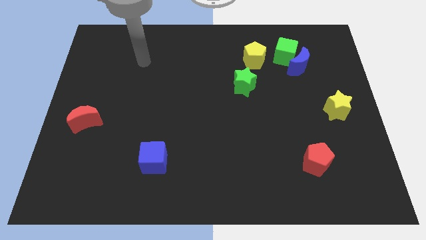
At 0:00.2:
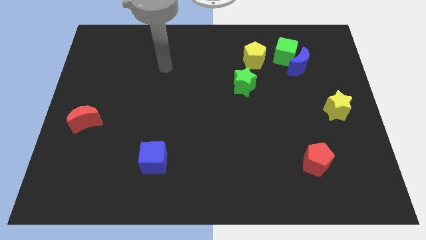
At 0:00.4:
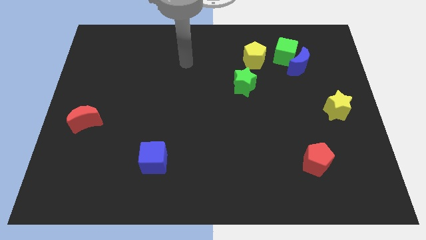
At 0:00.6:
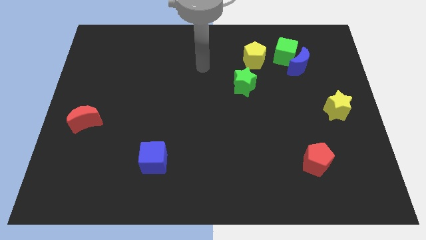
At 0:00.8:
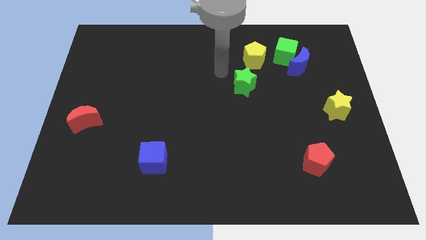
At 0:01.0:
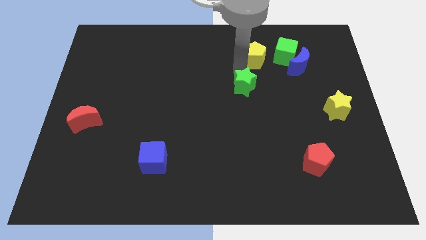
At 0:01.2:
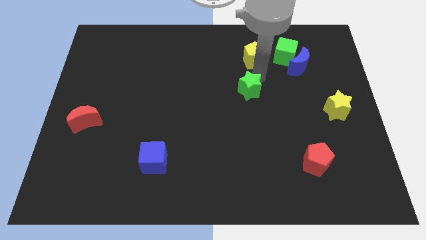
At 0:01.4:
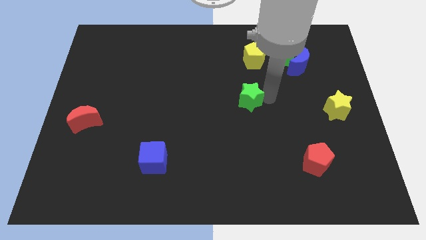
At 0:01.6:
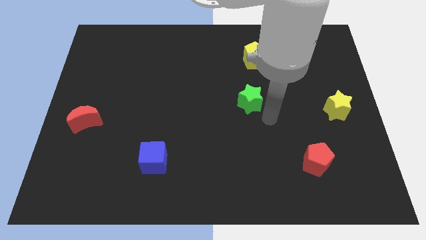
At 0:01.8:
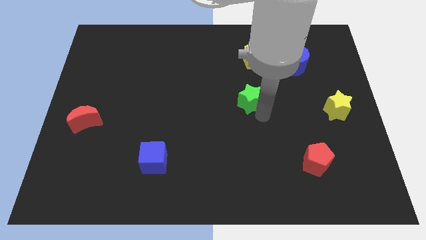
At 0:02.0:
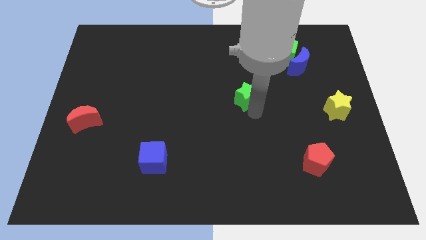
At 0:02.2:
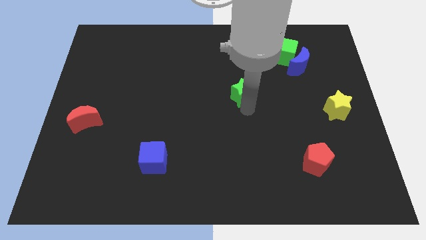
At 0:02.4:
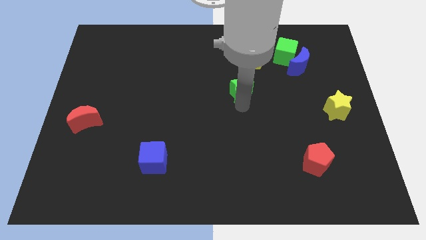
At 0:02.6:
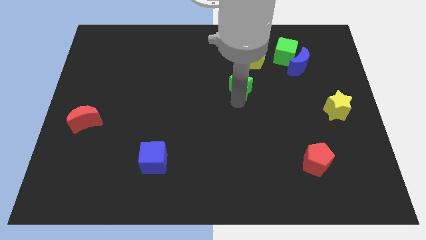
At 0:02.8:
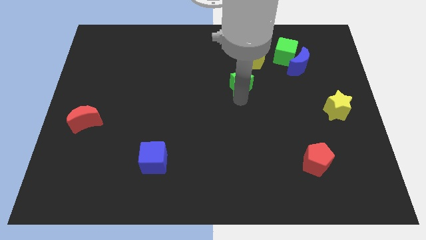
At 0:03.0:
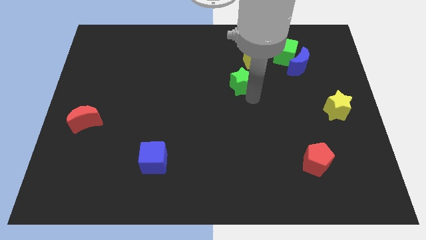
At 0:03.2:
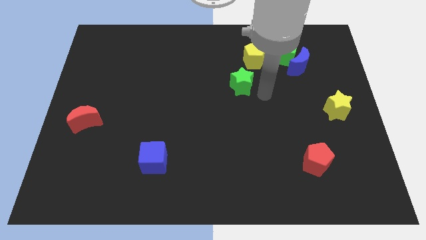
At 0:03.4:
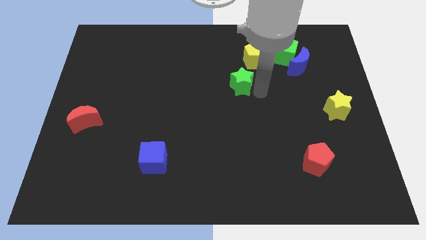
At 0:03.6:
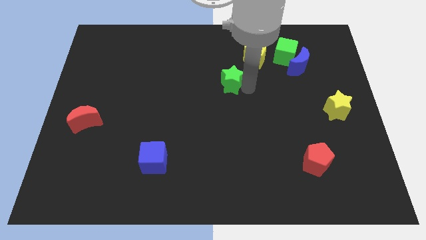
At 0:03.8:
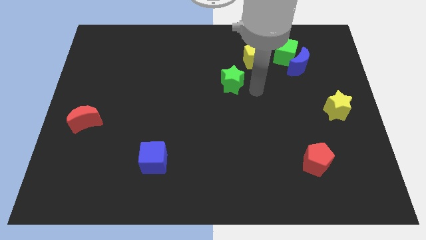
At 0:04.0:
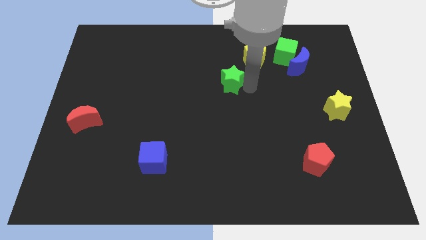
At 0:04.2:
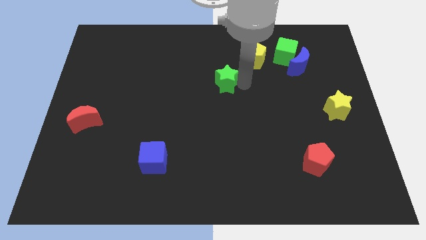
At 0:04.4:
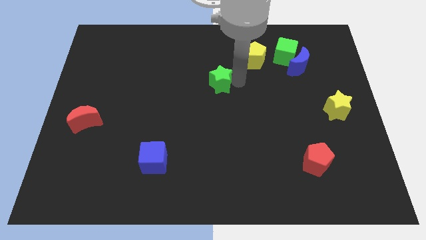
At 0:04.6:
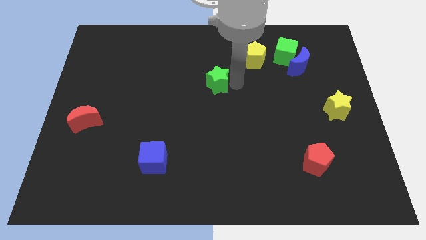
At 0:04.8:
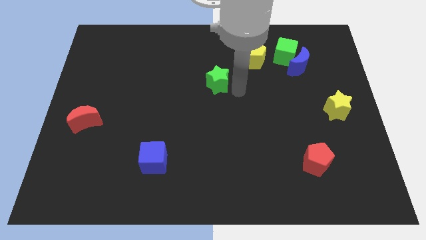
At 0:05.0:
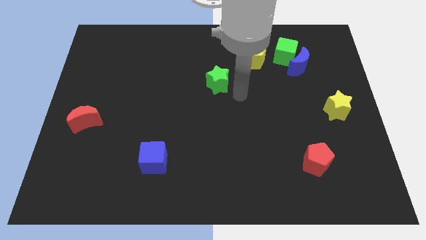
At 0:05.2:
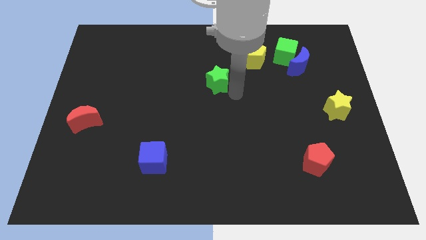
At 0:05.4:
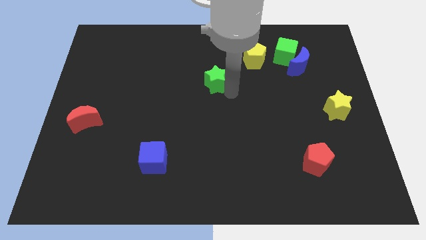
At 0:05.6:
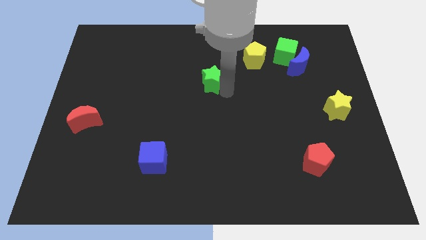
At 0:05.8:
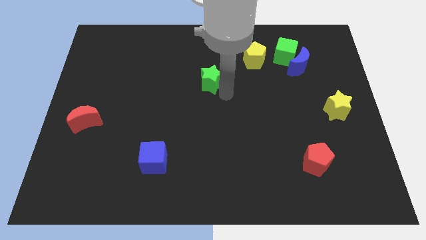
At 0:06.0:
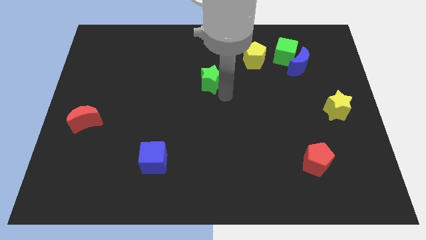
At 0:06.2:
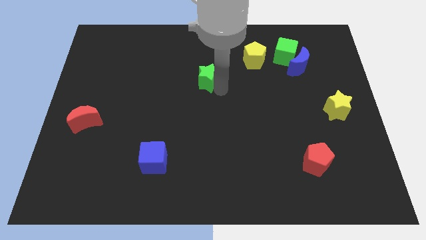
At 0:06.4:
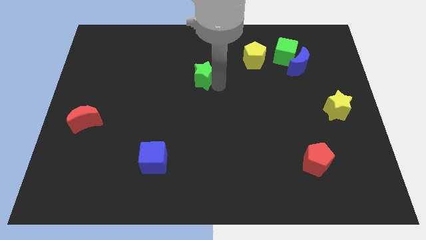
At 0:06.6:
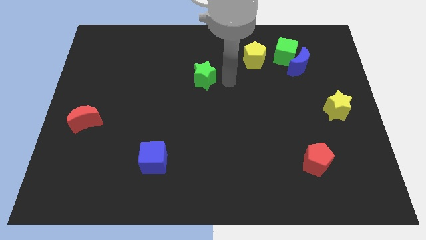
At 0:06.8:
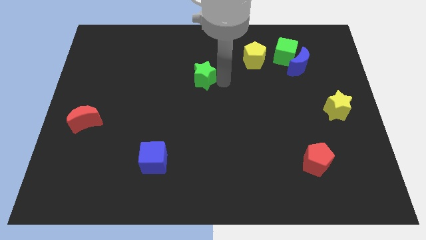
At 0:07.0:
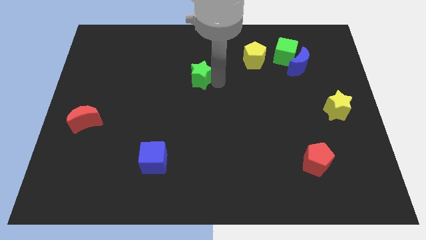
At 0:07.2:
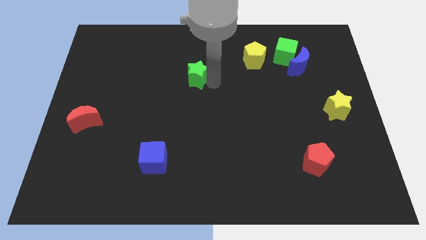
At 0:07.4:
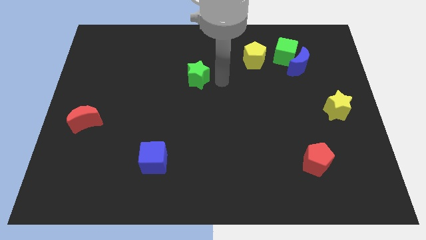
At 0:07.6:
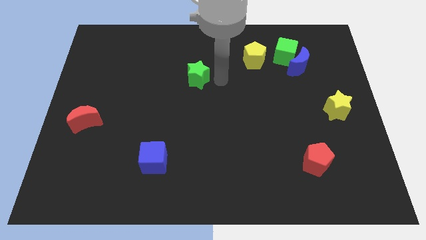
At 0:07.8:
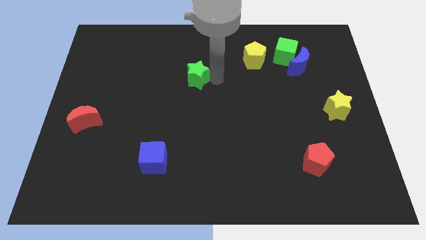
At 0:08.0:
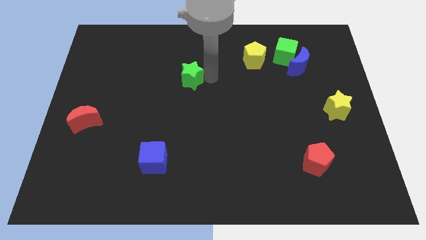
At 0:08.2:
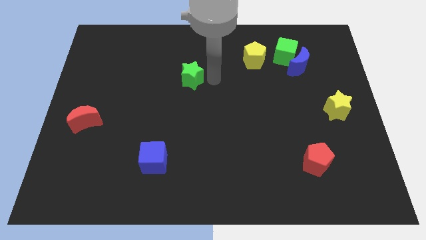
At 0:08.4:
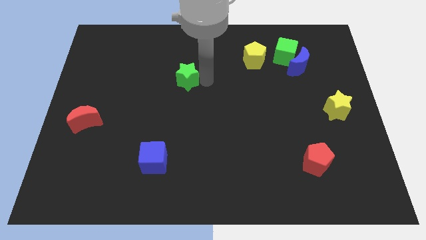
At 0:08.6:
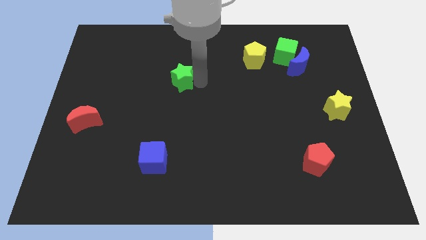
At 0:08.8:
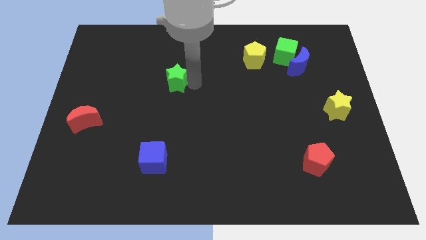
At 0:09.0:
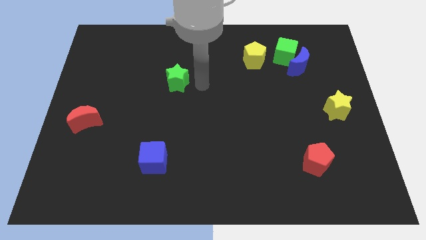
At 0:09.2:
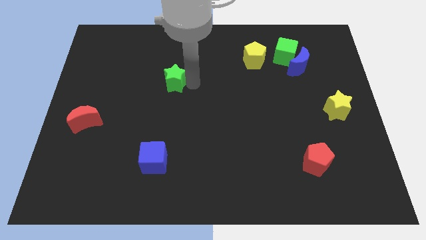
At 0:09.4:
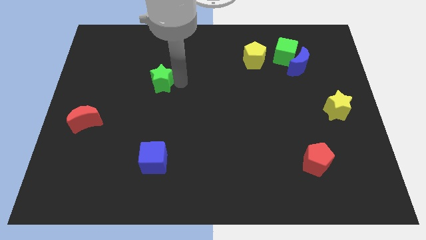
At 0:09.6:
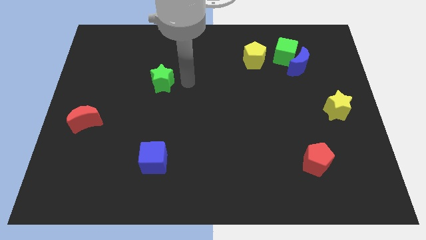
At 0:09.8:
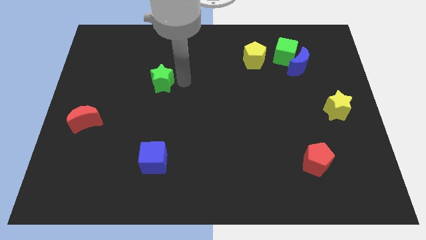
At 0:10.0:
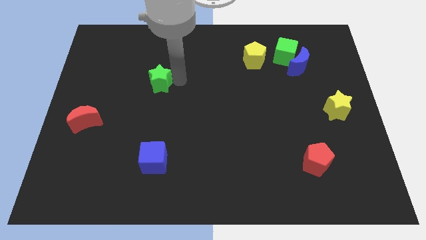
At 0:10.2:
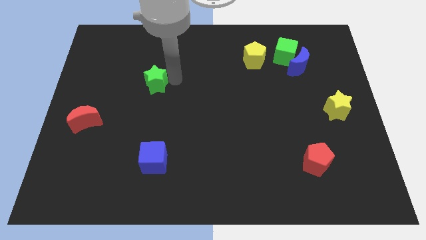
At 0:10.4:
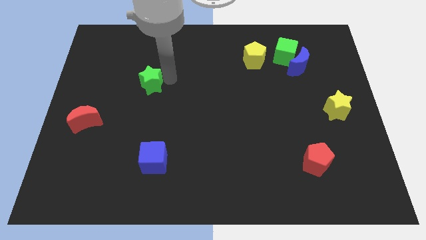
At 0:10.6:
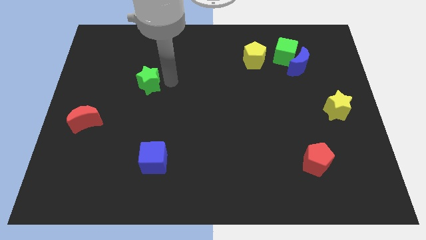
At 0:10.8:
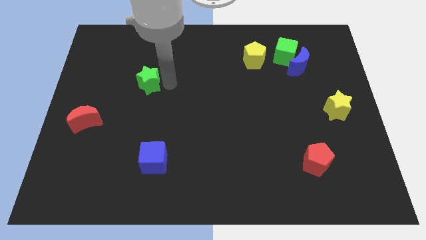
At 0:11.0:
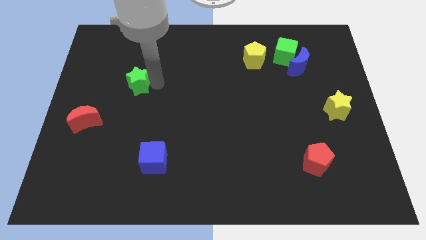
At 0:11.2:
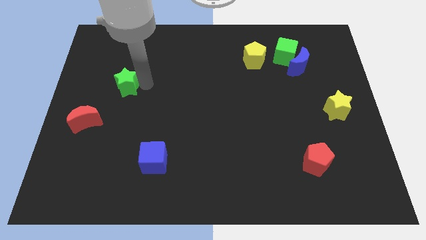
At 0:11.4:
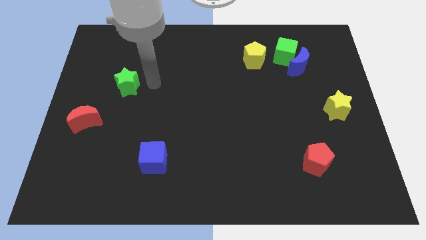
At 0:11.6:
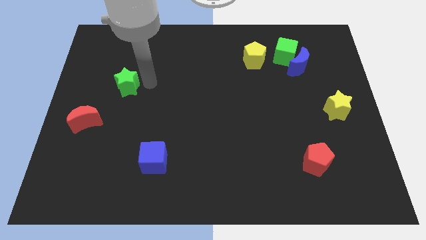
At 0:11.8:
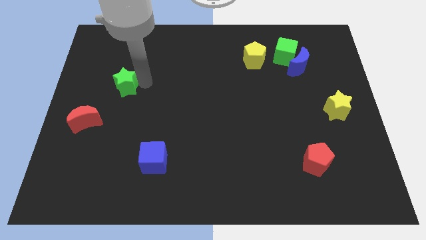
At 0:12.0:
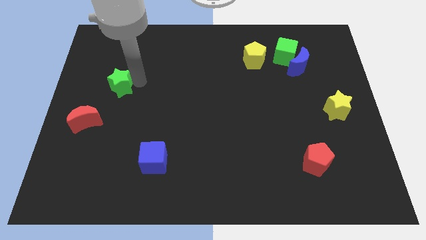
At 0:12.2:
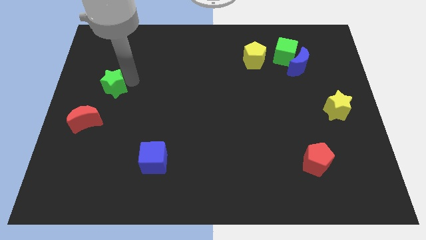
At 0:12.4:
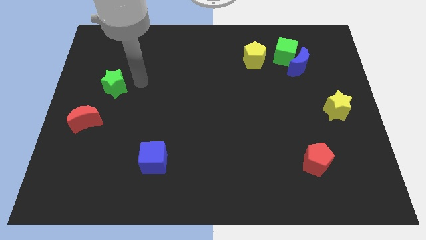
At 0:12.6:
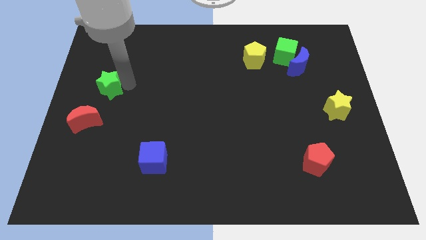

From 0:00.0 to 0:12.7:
move the green star to the left side

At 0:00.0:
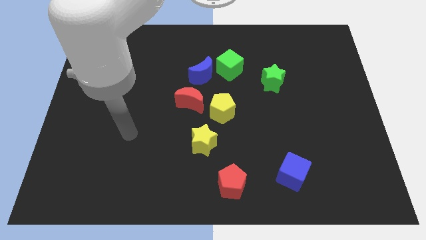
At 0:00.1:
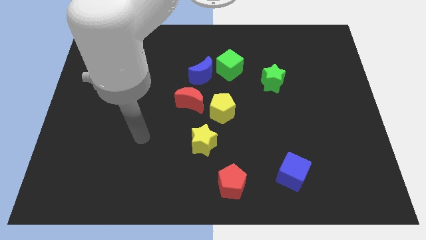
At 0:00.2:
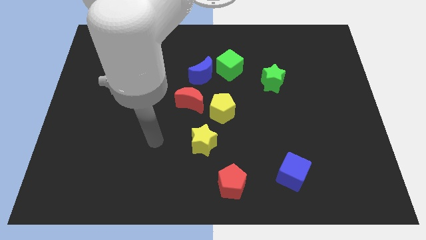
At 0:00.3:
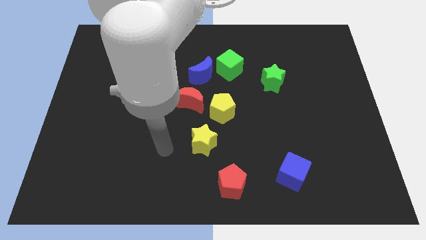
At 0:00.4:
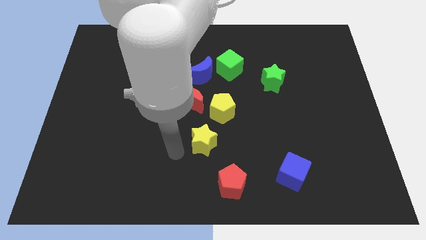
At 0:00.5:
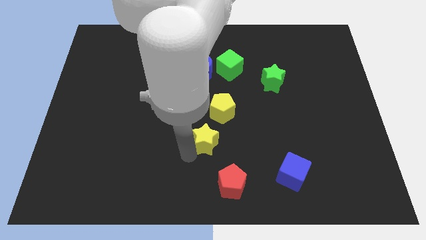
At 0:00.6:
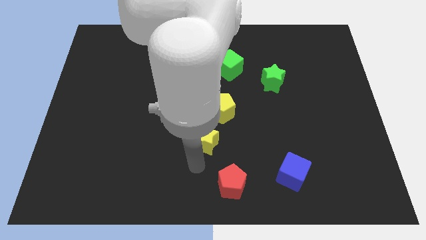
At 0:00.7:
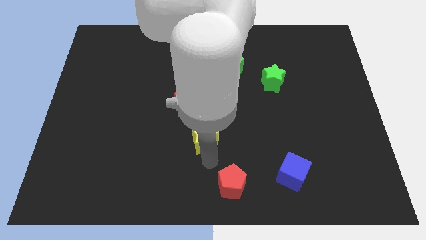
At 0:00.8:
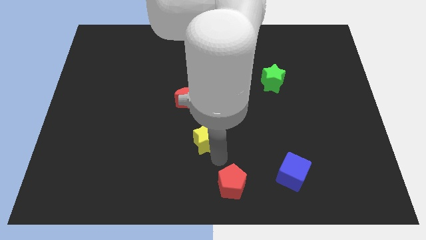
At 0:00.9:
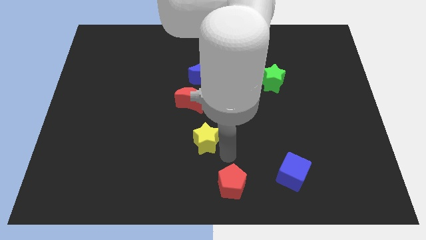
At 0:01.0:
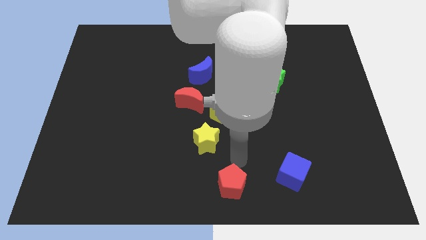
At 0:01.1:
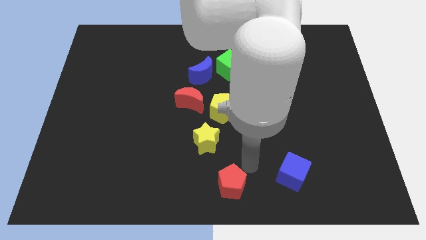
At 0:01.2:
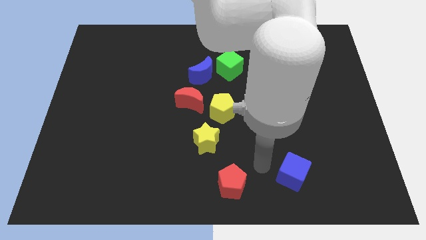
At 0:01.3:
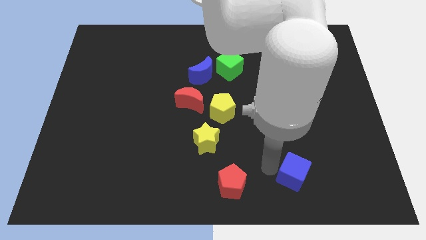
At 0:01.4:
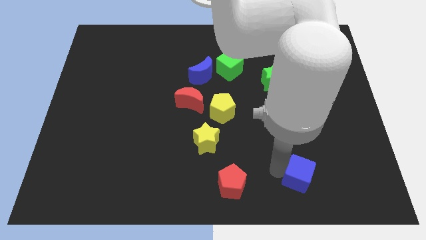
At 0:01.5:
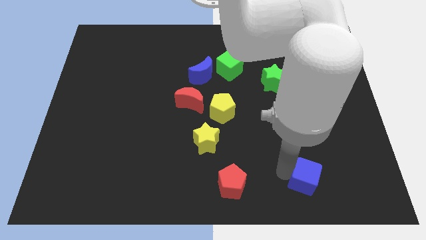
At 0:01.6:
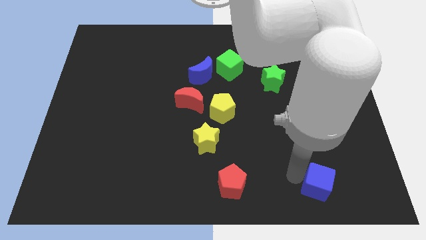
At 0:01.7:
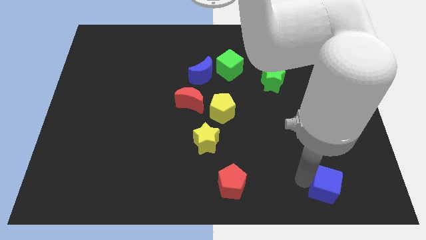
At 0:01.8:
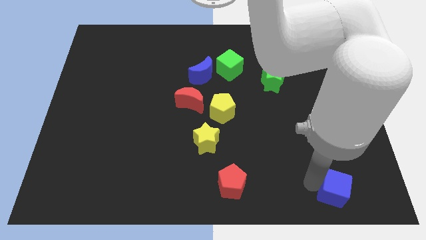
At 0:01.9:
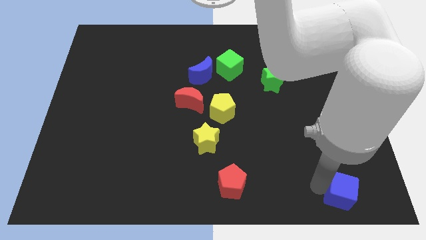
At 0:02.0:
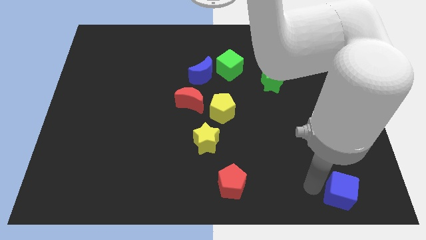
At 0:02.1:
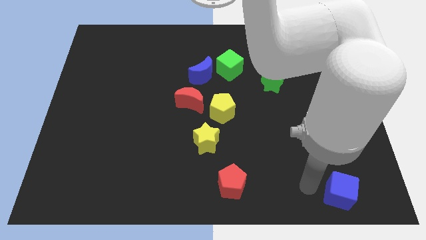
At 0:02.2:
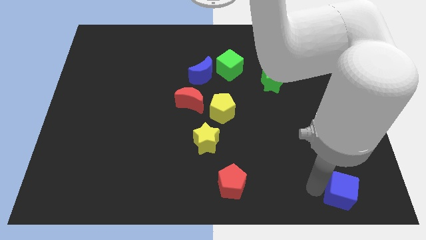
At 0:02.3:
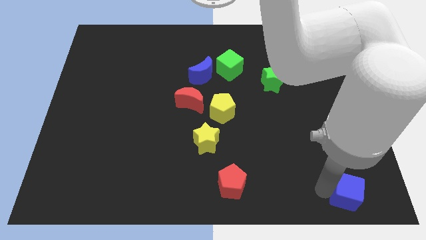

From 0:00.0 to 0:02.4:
move the blue cube to the bottom right of the board
